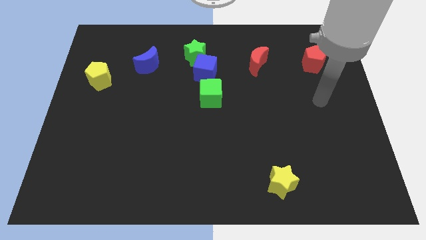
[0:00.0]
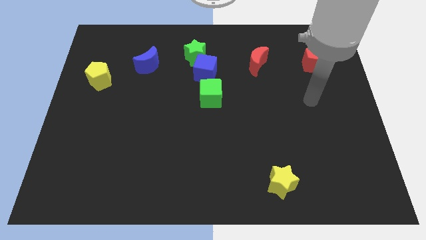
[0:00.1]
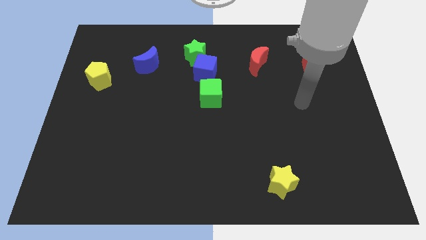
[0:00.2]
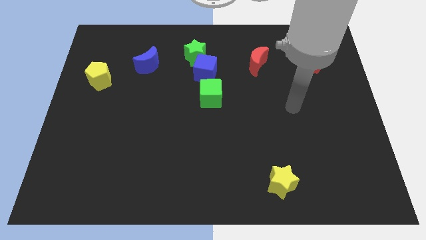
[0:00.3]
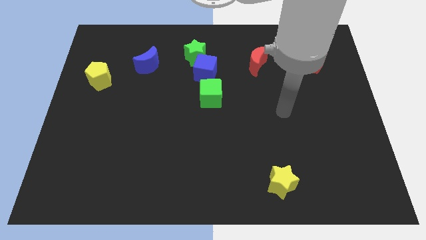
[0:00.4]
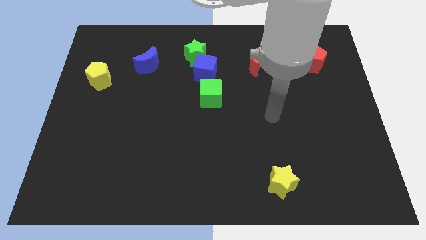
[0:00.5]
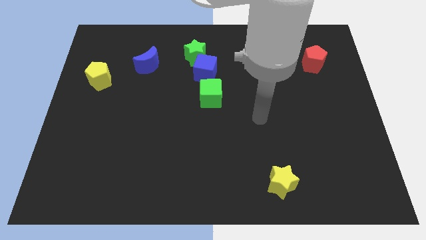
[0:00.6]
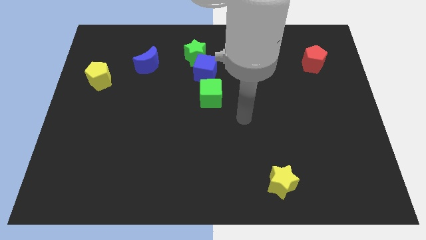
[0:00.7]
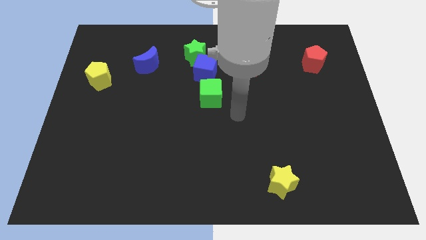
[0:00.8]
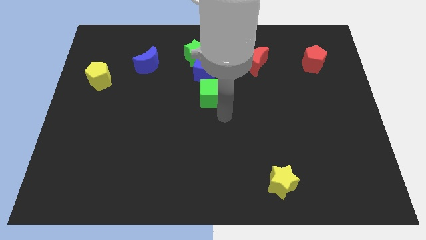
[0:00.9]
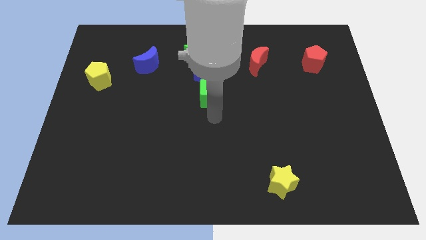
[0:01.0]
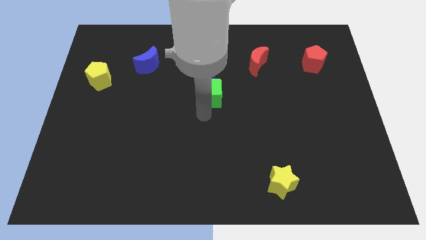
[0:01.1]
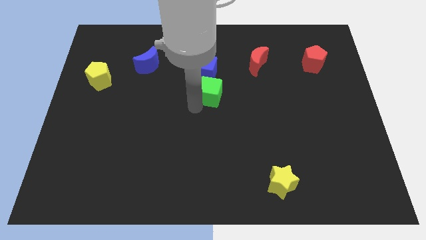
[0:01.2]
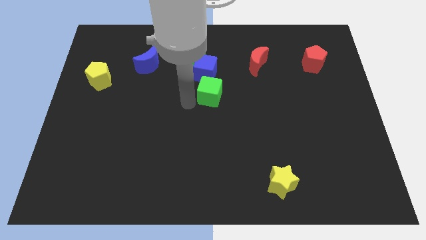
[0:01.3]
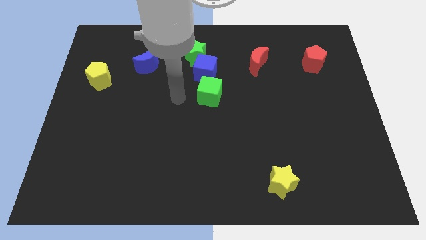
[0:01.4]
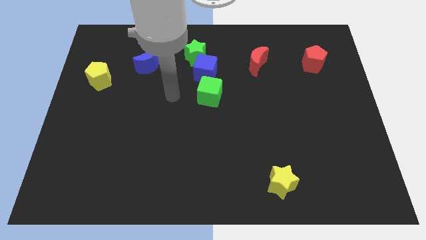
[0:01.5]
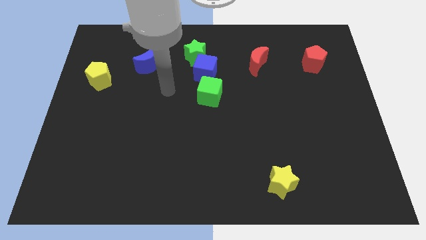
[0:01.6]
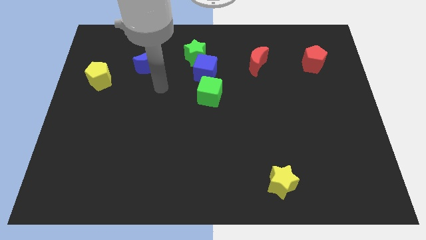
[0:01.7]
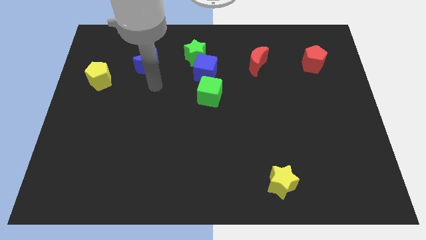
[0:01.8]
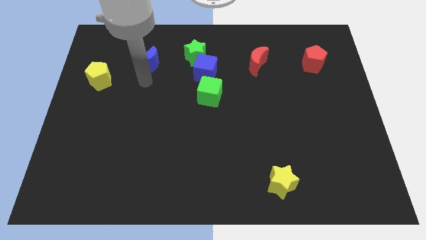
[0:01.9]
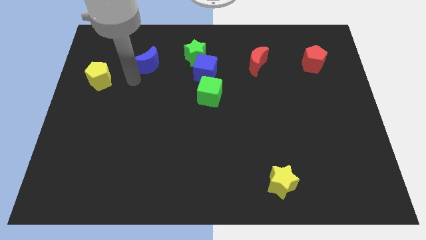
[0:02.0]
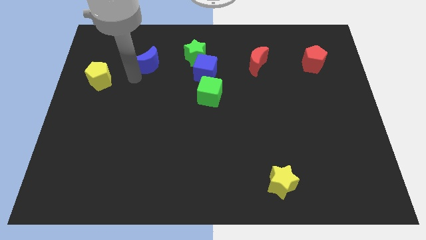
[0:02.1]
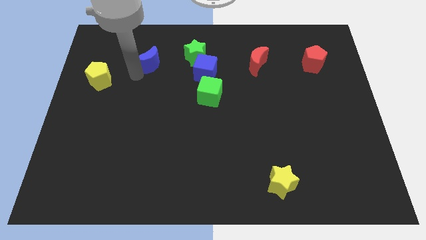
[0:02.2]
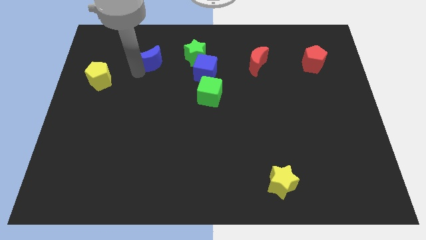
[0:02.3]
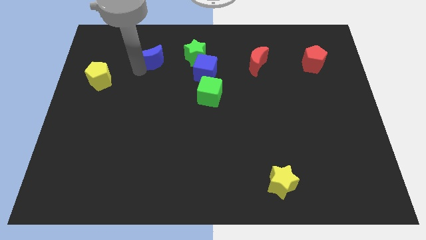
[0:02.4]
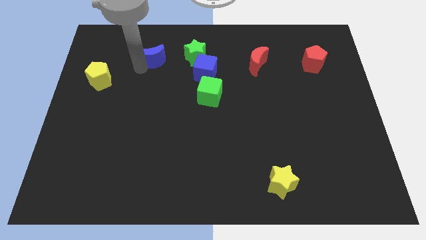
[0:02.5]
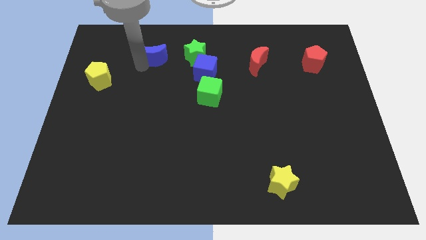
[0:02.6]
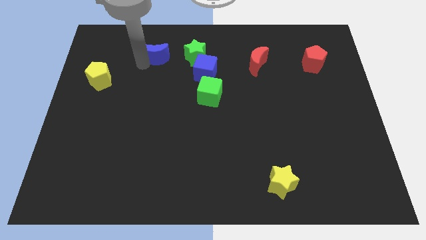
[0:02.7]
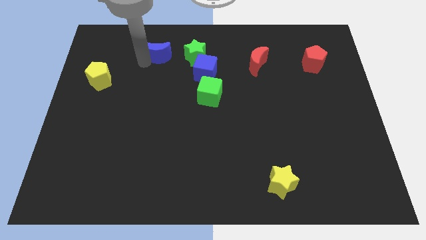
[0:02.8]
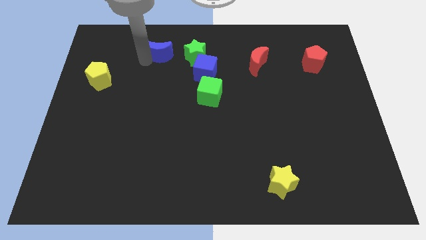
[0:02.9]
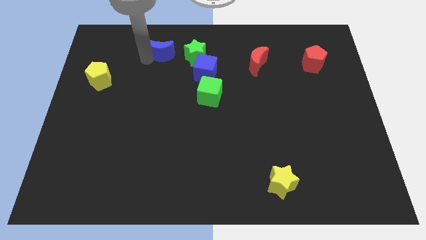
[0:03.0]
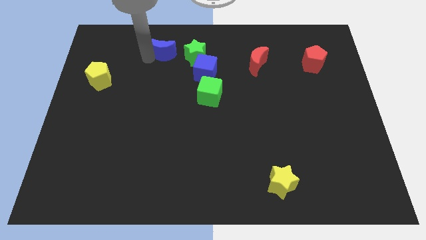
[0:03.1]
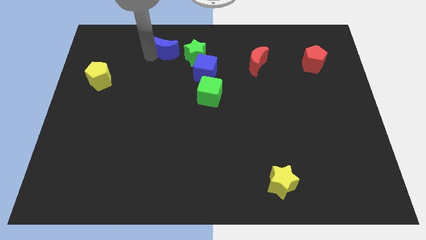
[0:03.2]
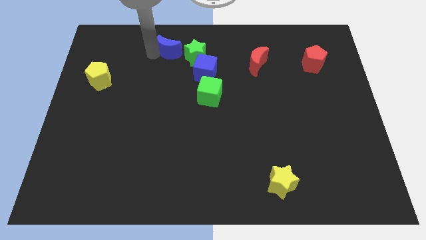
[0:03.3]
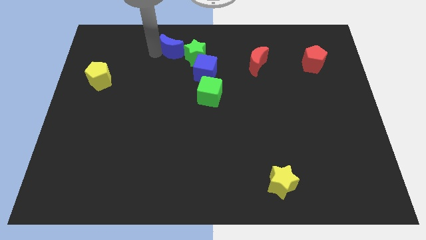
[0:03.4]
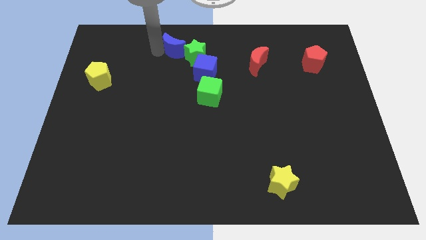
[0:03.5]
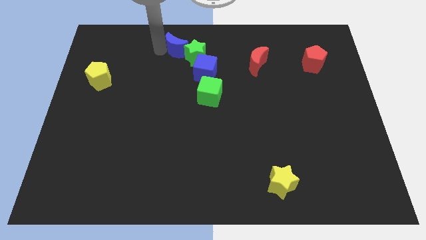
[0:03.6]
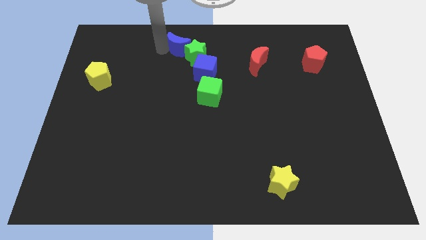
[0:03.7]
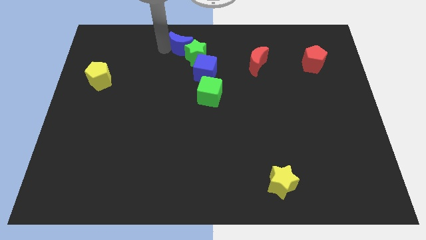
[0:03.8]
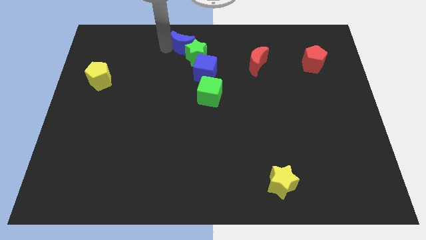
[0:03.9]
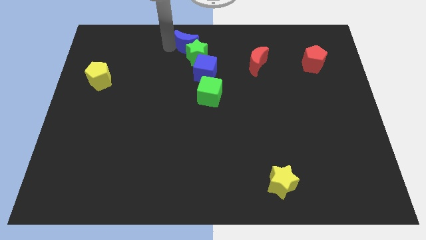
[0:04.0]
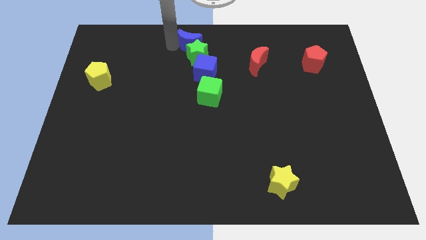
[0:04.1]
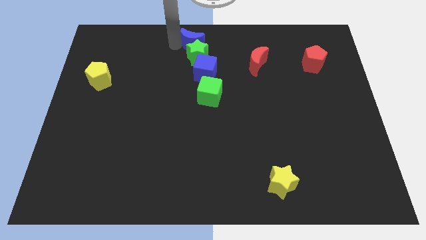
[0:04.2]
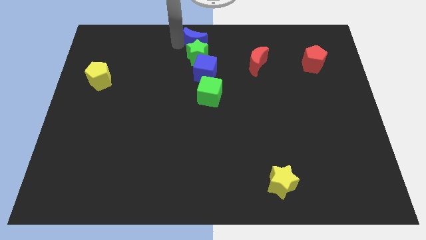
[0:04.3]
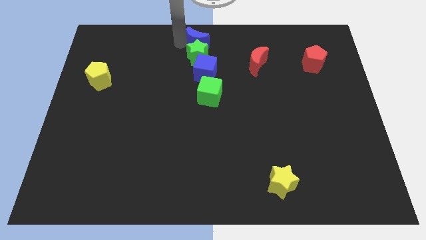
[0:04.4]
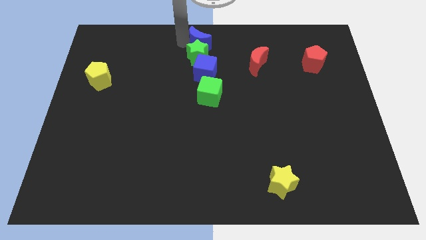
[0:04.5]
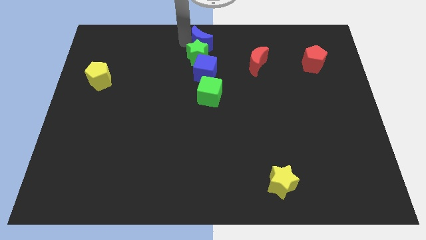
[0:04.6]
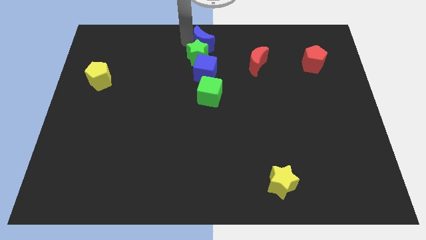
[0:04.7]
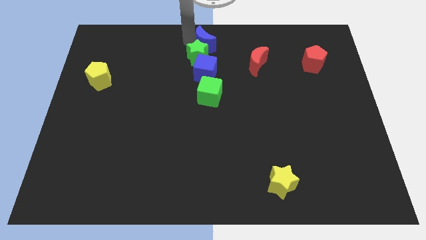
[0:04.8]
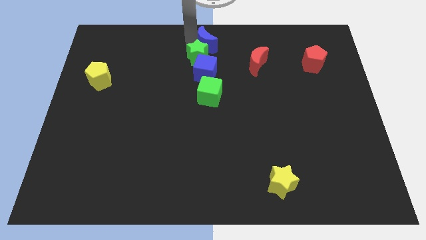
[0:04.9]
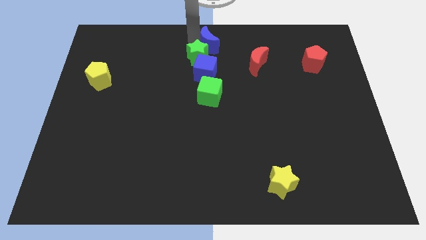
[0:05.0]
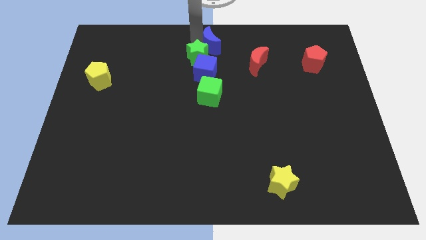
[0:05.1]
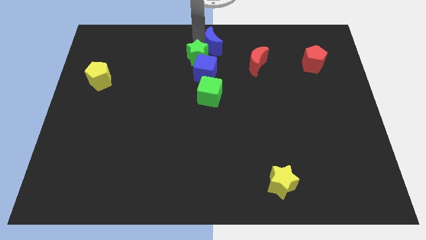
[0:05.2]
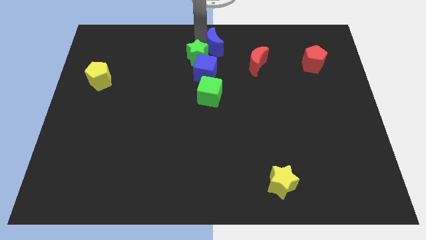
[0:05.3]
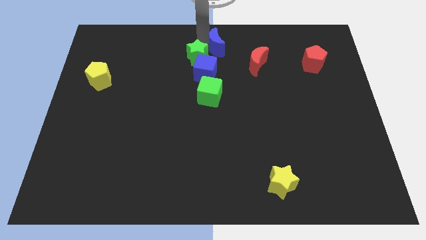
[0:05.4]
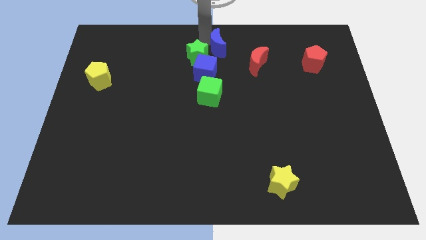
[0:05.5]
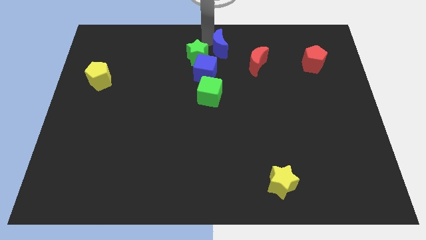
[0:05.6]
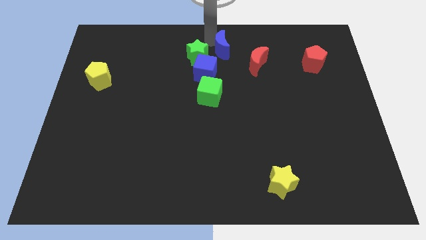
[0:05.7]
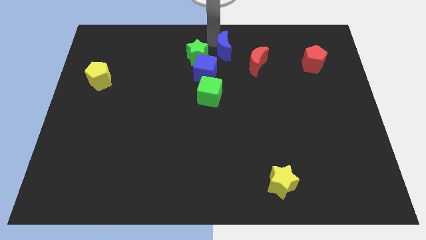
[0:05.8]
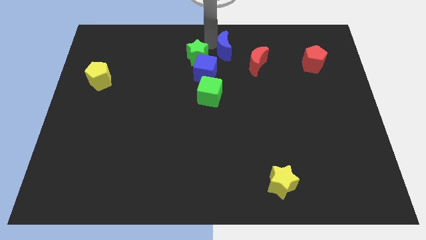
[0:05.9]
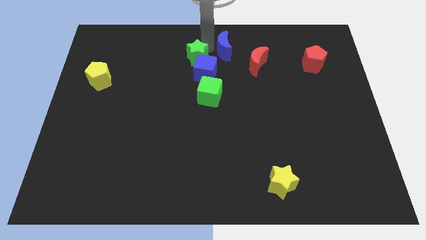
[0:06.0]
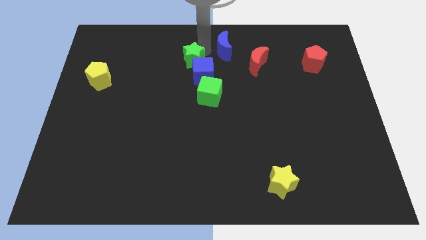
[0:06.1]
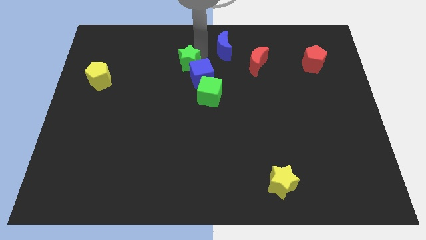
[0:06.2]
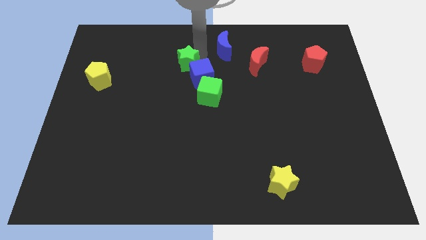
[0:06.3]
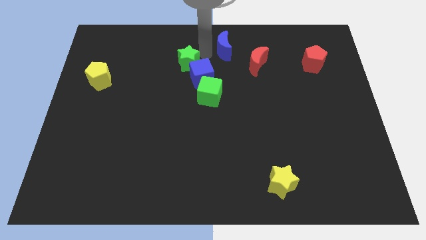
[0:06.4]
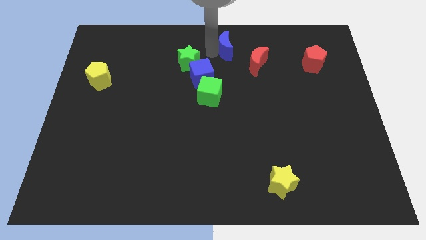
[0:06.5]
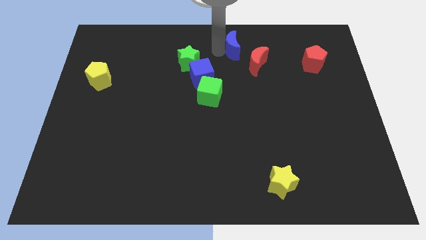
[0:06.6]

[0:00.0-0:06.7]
move the blue moon right

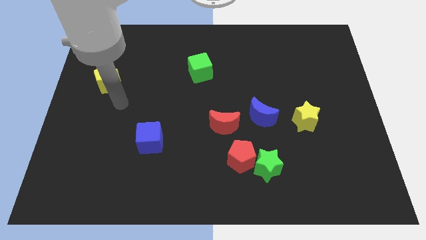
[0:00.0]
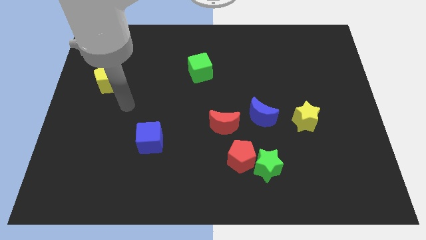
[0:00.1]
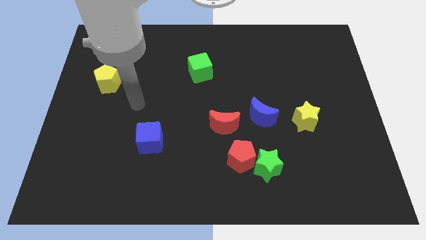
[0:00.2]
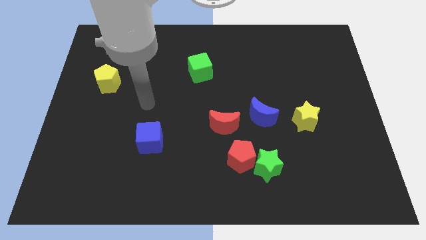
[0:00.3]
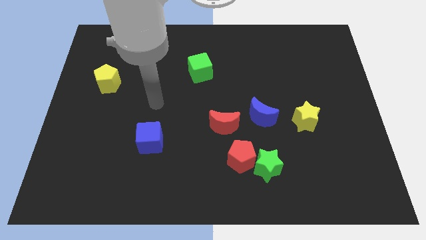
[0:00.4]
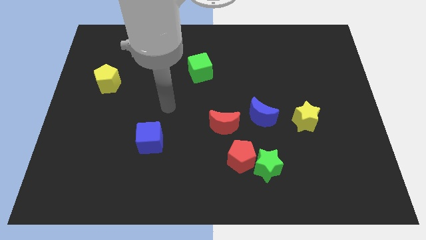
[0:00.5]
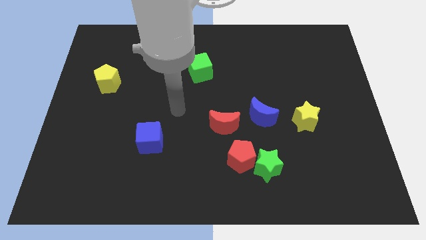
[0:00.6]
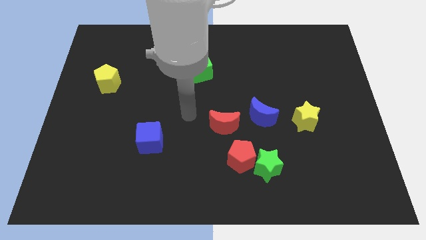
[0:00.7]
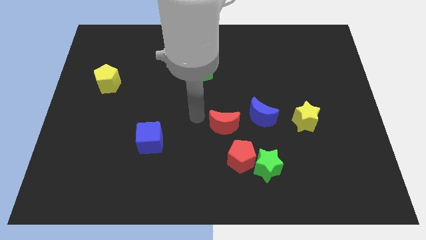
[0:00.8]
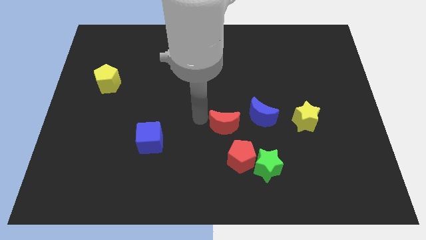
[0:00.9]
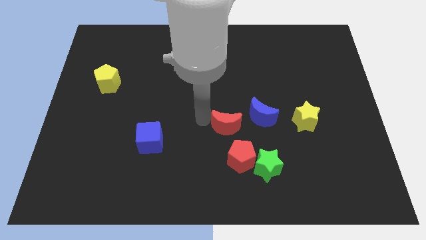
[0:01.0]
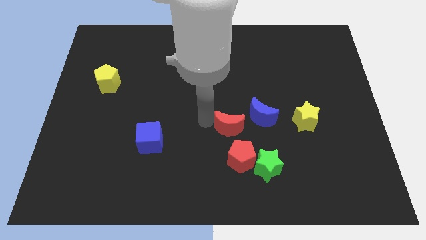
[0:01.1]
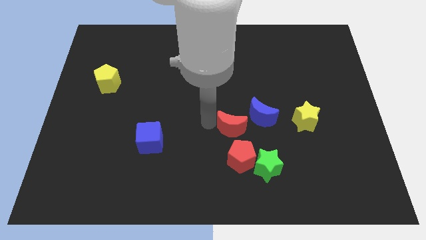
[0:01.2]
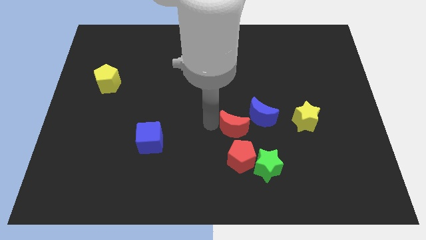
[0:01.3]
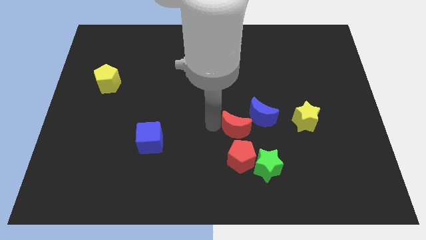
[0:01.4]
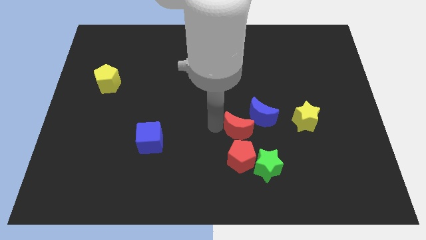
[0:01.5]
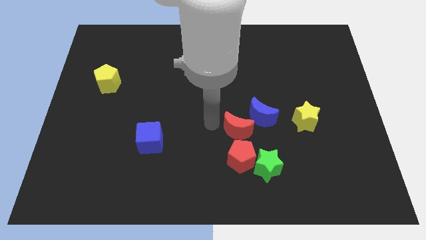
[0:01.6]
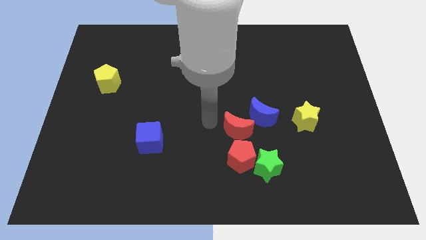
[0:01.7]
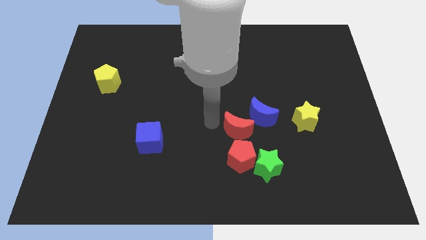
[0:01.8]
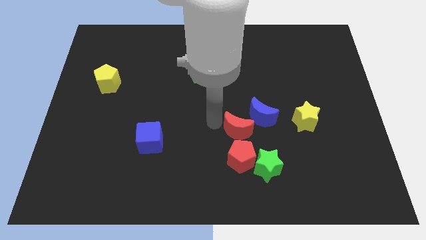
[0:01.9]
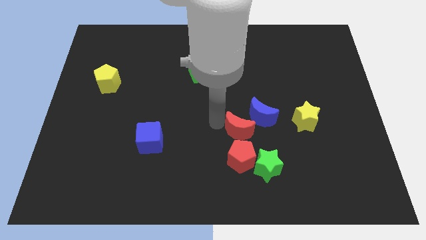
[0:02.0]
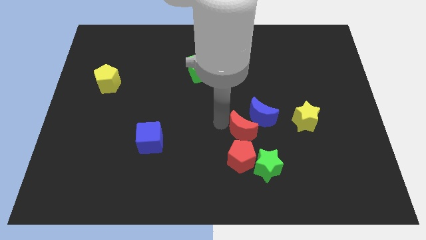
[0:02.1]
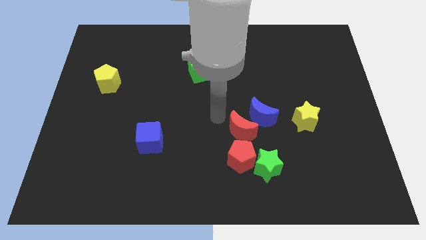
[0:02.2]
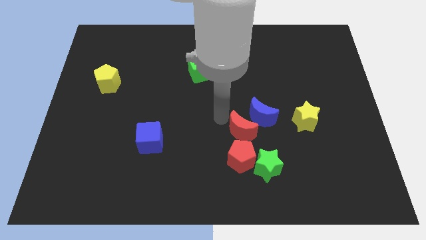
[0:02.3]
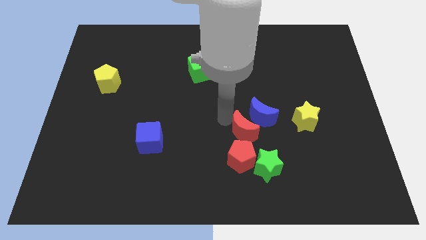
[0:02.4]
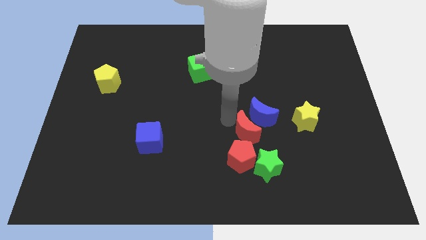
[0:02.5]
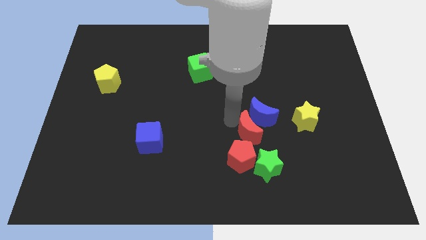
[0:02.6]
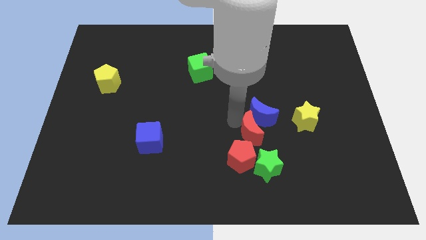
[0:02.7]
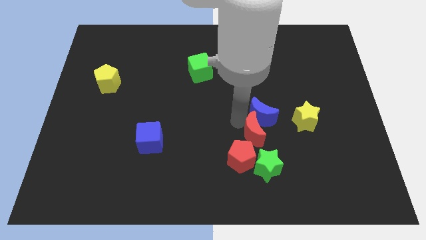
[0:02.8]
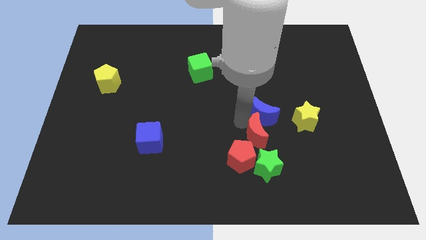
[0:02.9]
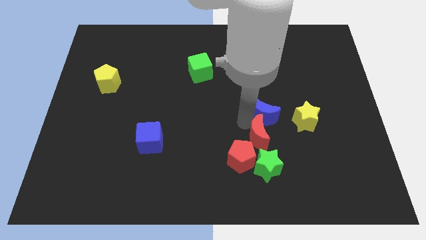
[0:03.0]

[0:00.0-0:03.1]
slide the red moon diagonally down and to the right a little bit
